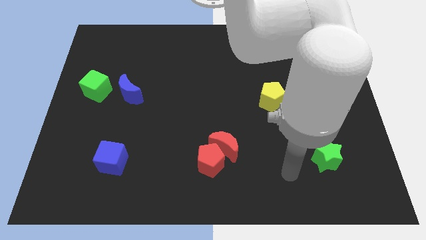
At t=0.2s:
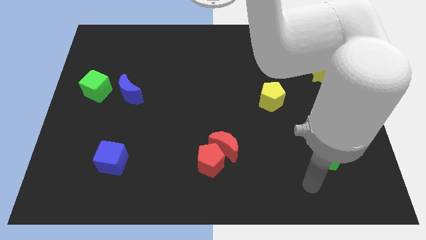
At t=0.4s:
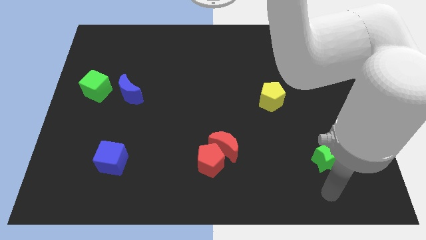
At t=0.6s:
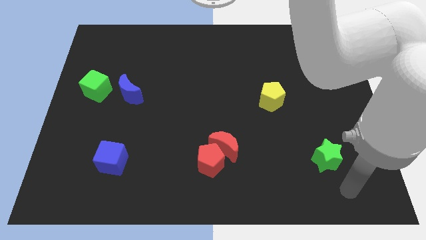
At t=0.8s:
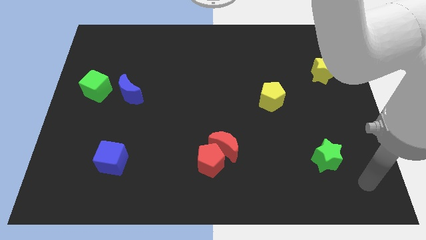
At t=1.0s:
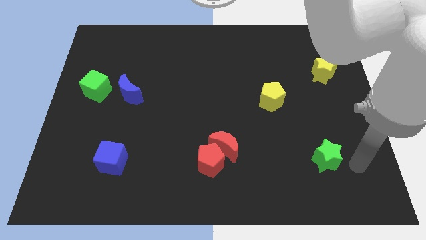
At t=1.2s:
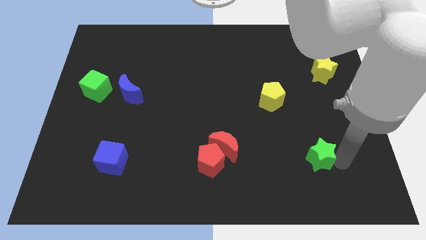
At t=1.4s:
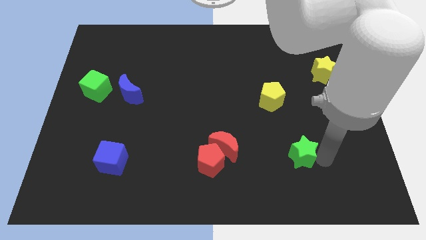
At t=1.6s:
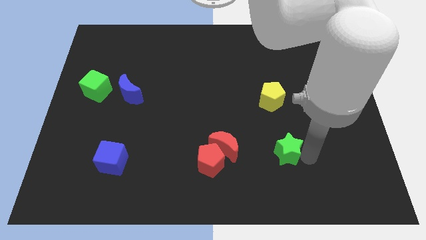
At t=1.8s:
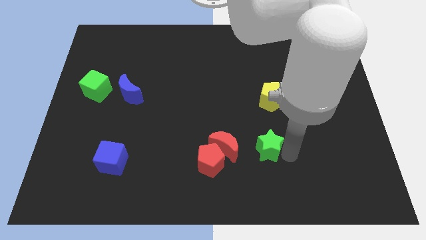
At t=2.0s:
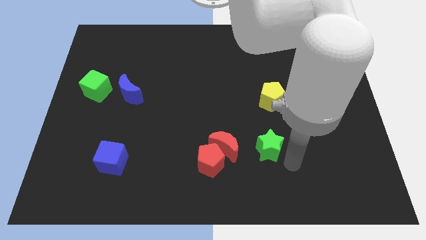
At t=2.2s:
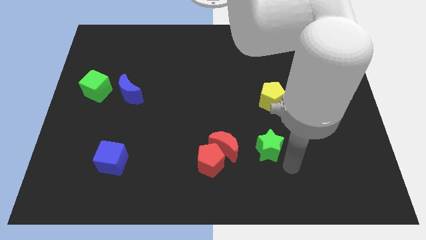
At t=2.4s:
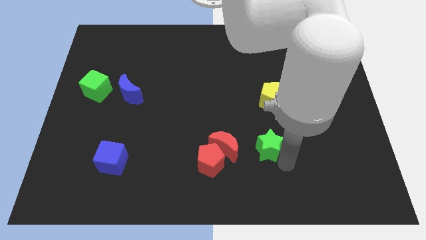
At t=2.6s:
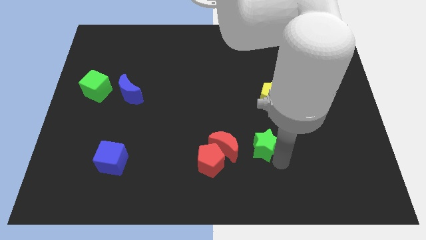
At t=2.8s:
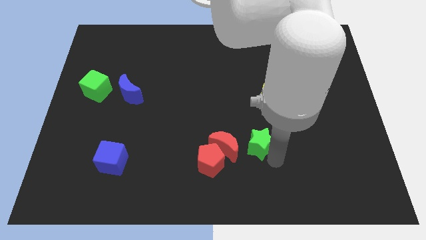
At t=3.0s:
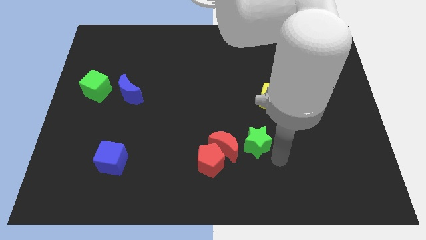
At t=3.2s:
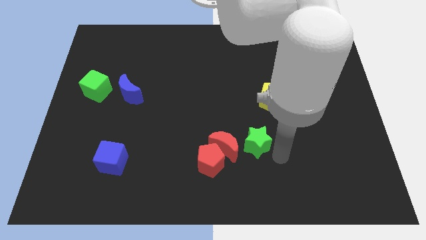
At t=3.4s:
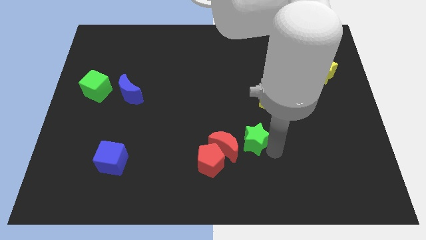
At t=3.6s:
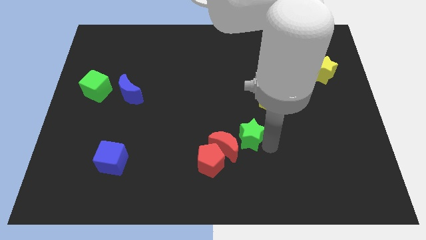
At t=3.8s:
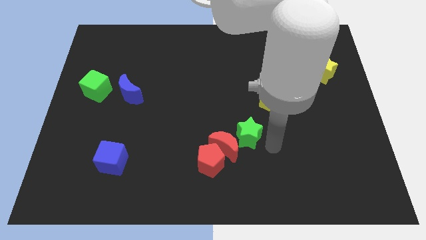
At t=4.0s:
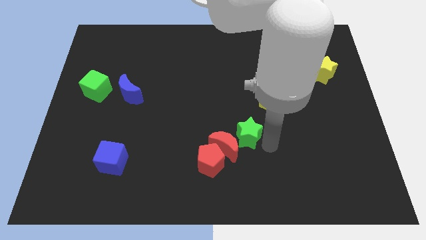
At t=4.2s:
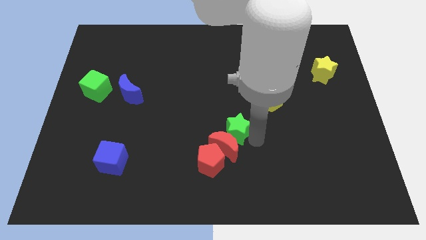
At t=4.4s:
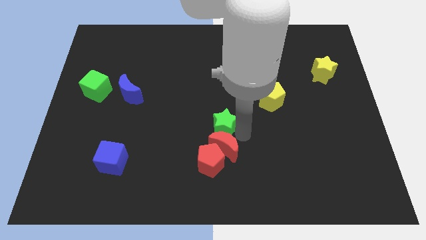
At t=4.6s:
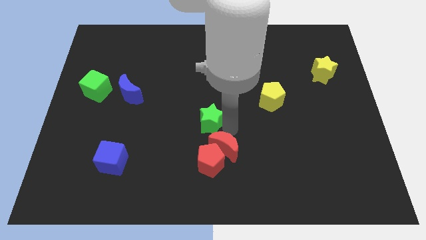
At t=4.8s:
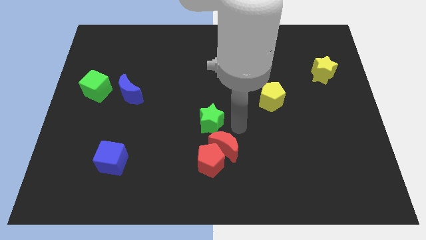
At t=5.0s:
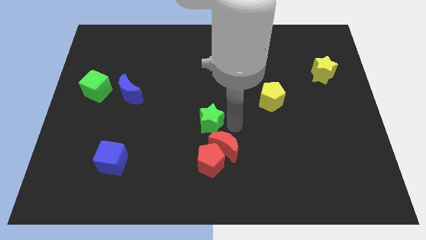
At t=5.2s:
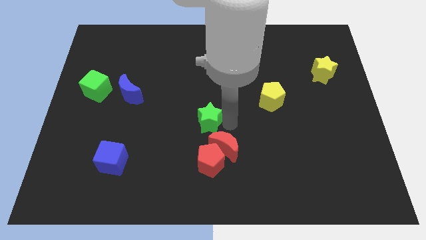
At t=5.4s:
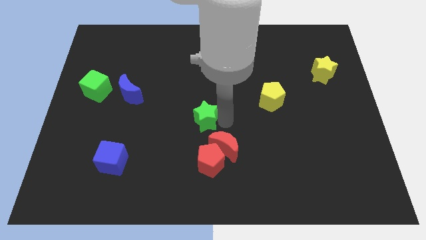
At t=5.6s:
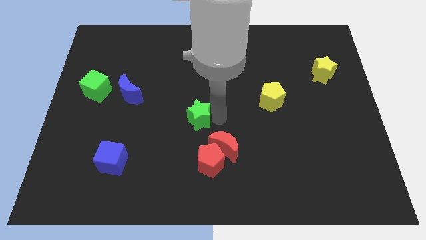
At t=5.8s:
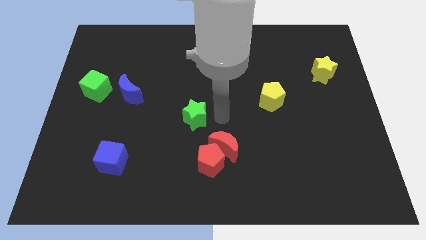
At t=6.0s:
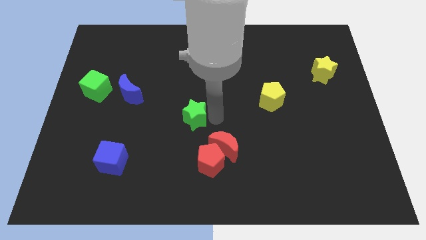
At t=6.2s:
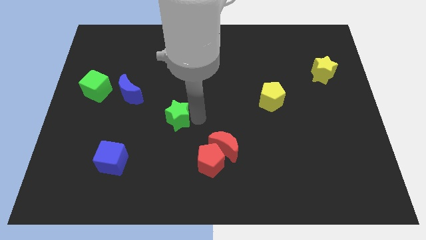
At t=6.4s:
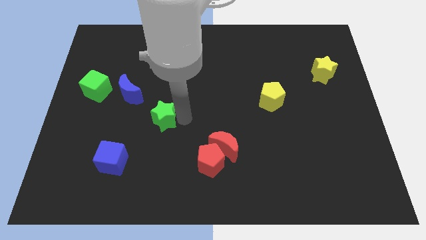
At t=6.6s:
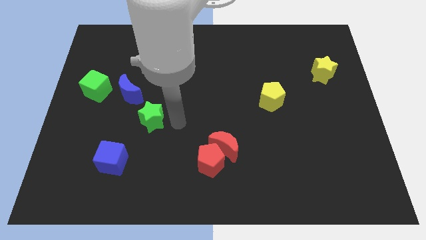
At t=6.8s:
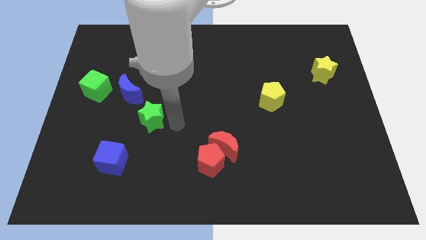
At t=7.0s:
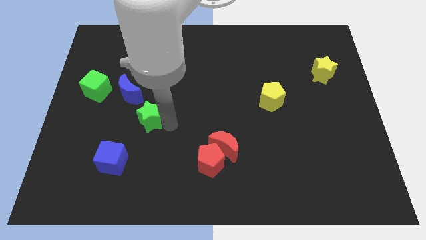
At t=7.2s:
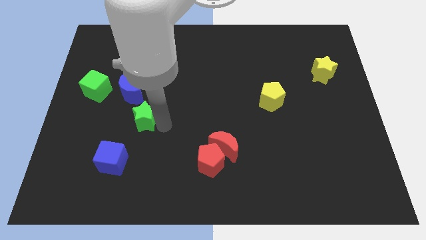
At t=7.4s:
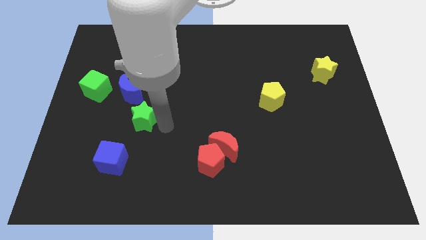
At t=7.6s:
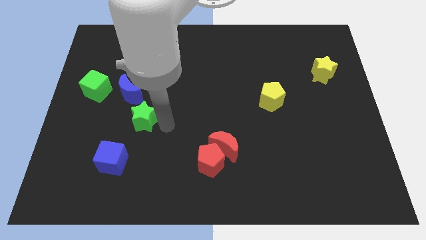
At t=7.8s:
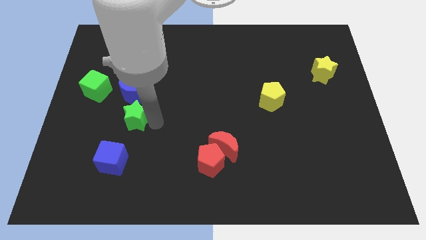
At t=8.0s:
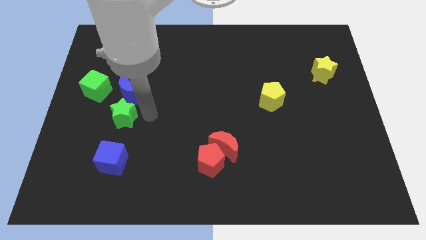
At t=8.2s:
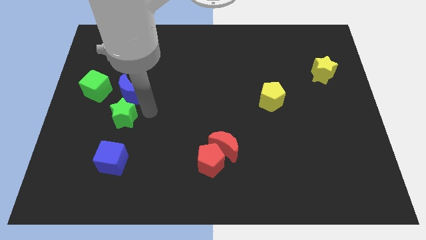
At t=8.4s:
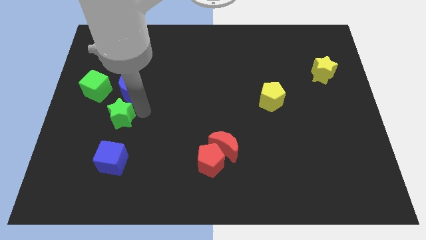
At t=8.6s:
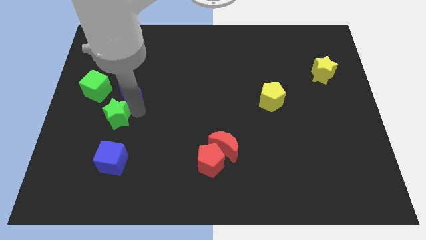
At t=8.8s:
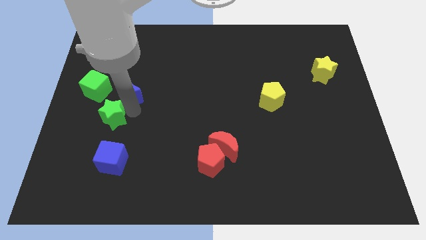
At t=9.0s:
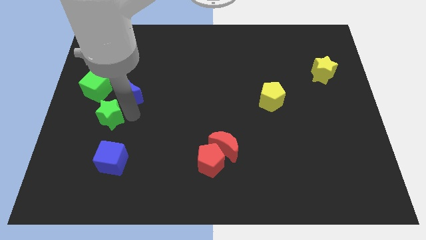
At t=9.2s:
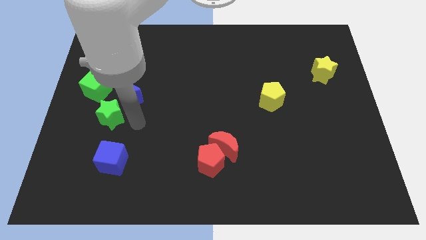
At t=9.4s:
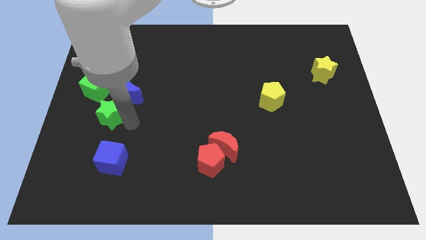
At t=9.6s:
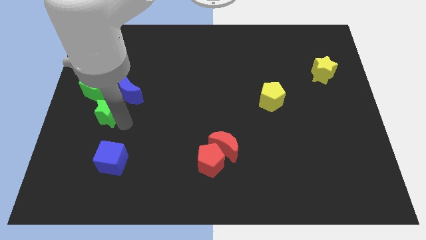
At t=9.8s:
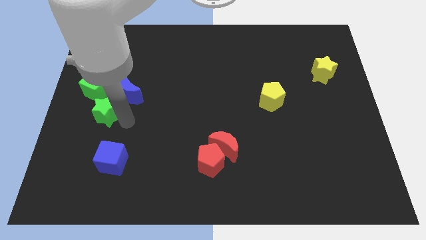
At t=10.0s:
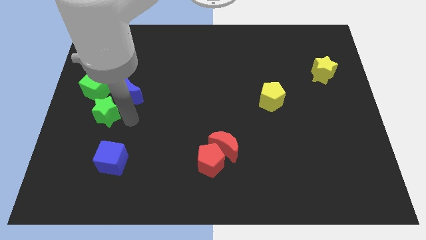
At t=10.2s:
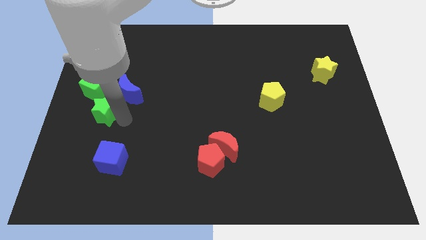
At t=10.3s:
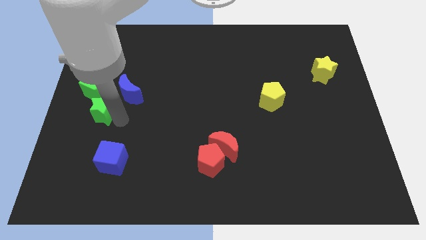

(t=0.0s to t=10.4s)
slide the green star to the left side

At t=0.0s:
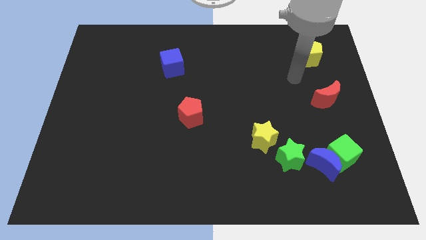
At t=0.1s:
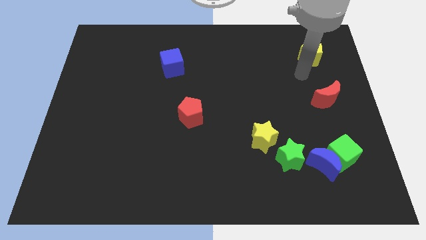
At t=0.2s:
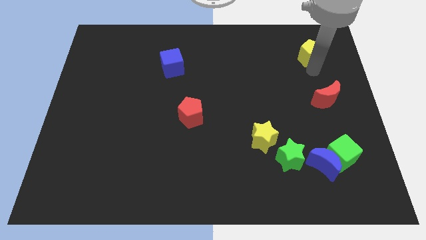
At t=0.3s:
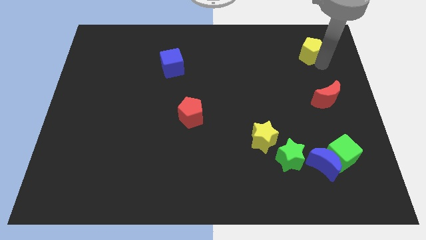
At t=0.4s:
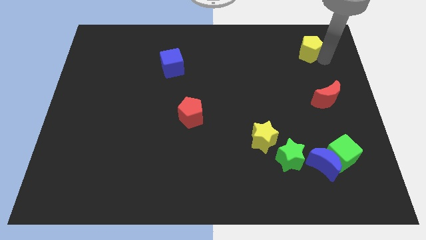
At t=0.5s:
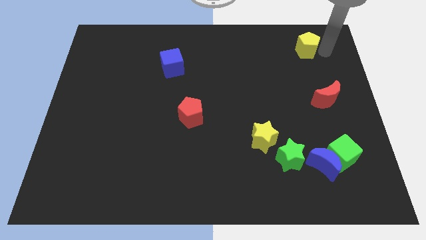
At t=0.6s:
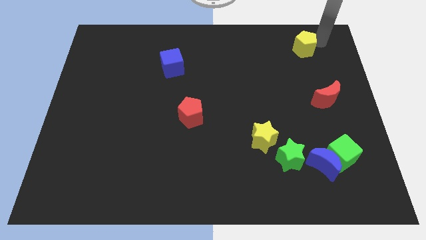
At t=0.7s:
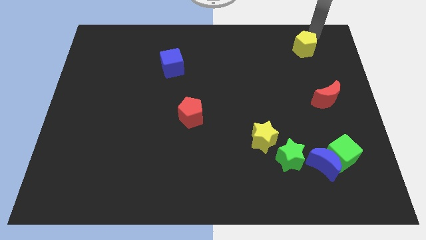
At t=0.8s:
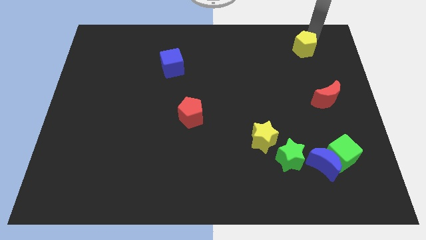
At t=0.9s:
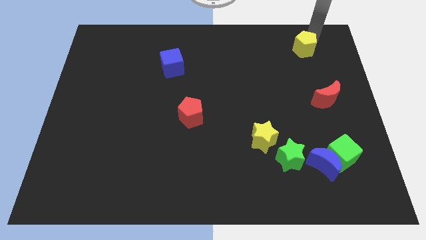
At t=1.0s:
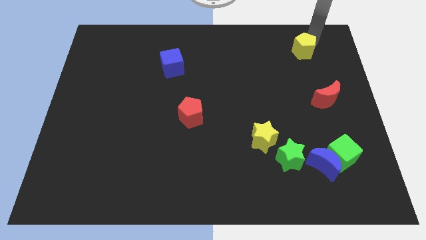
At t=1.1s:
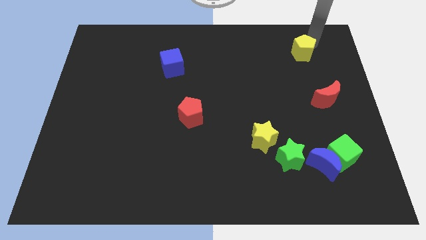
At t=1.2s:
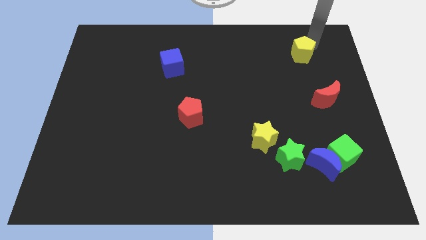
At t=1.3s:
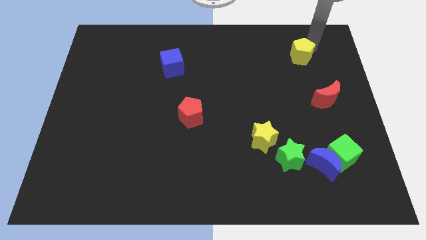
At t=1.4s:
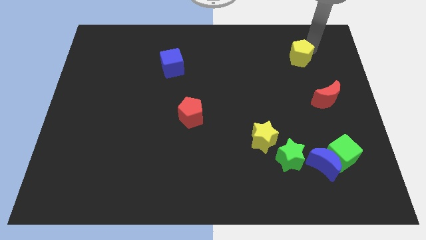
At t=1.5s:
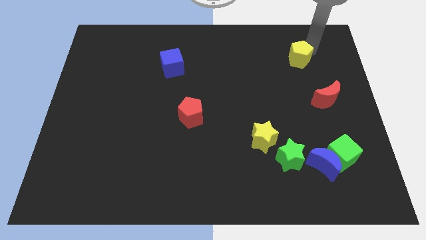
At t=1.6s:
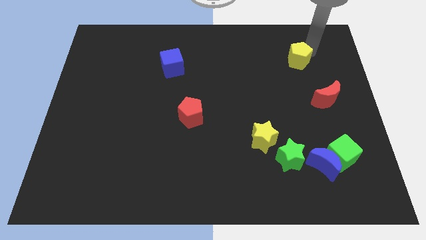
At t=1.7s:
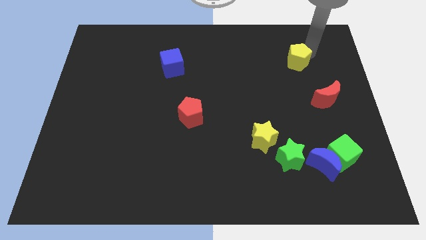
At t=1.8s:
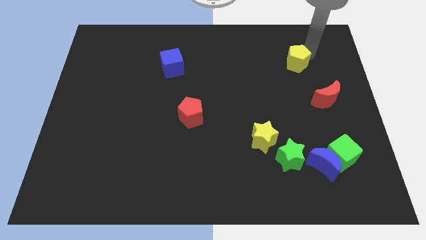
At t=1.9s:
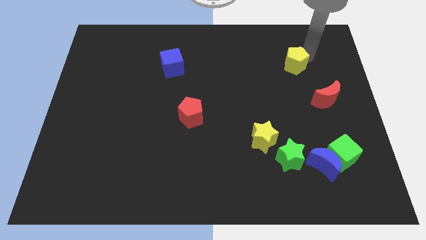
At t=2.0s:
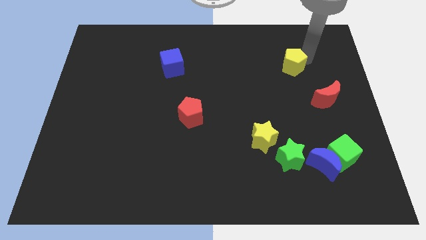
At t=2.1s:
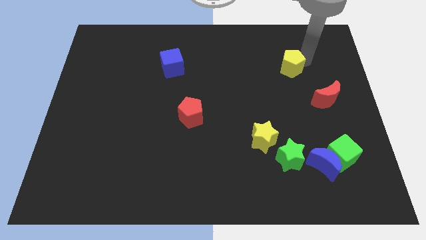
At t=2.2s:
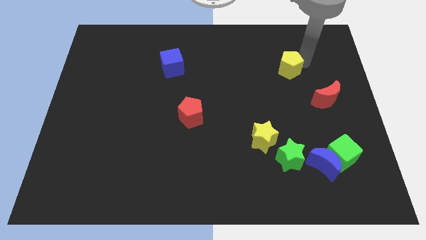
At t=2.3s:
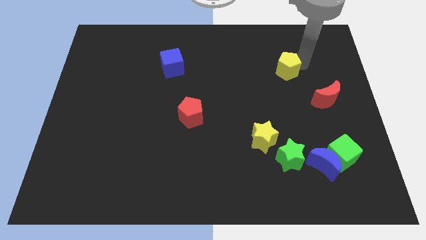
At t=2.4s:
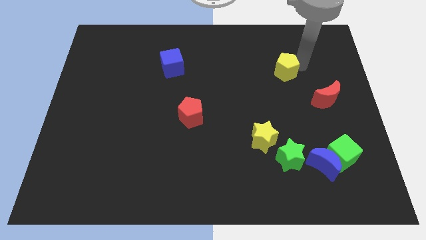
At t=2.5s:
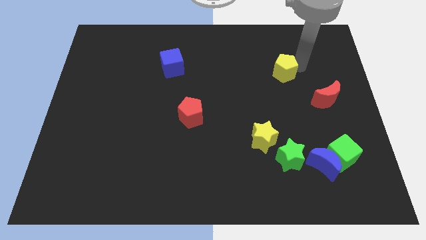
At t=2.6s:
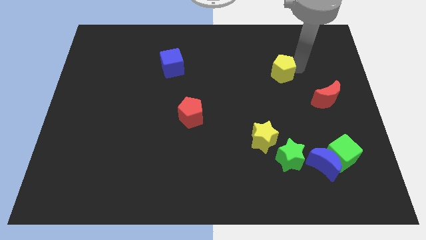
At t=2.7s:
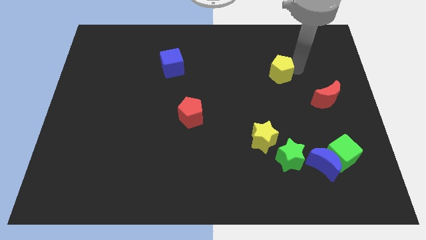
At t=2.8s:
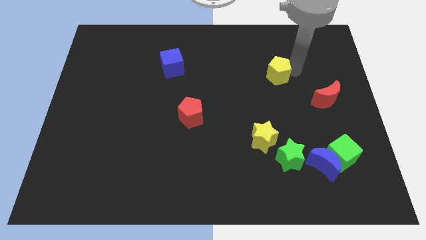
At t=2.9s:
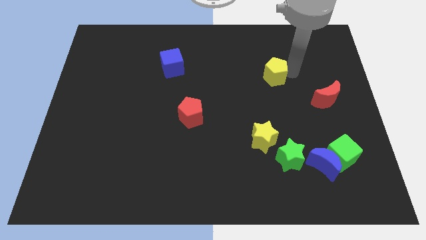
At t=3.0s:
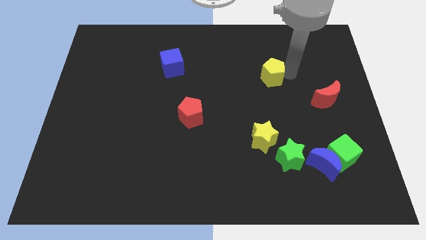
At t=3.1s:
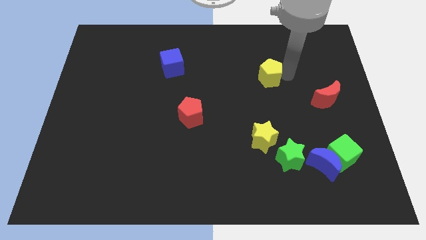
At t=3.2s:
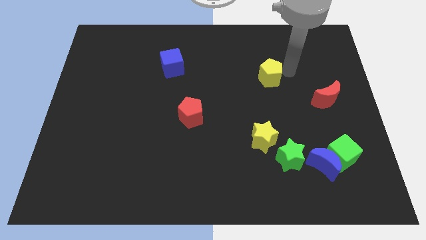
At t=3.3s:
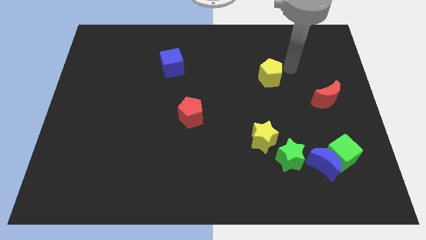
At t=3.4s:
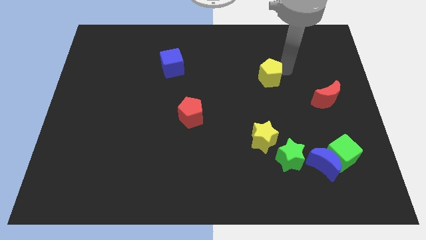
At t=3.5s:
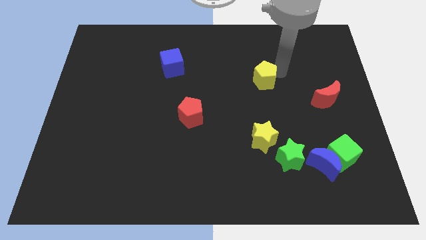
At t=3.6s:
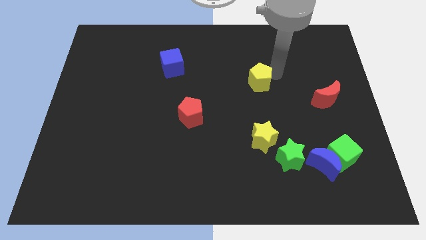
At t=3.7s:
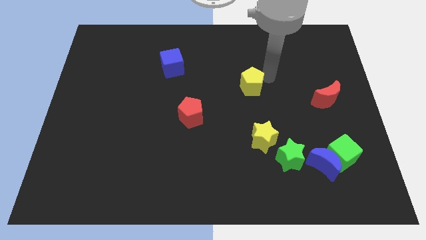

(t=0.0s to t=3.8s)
push the yellow pentagon to the middle of the board
